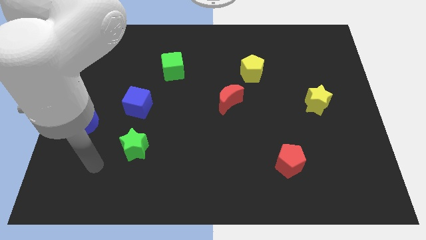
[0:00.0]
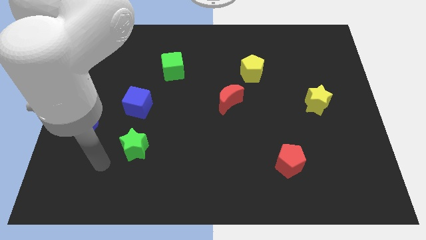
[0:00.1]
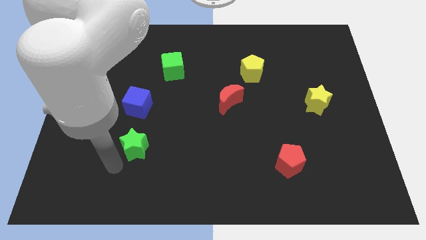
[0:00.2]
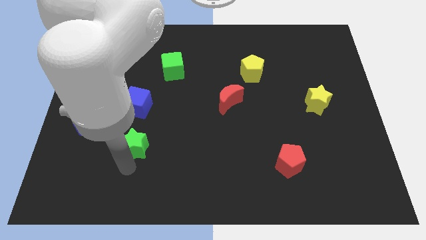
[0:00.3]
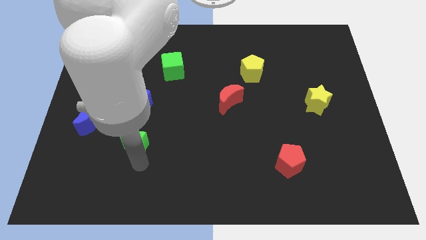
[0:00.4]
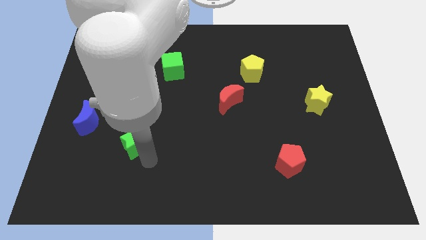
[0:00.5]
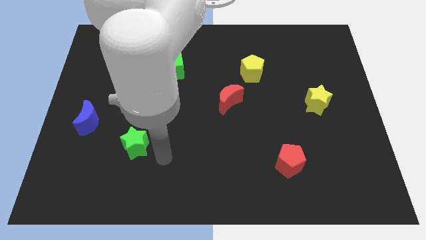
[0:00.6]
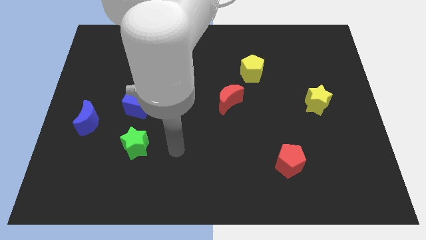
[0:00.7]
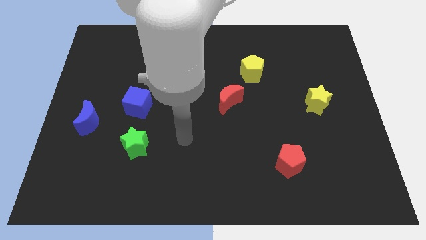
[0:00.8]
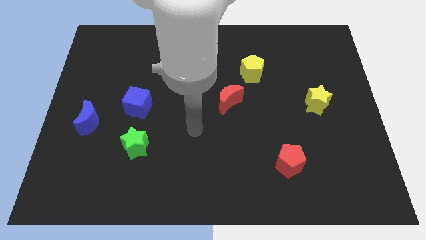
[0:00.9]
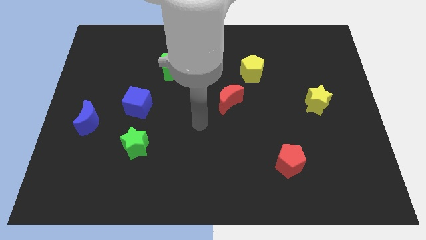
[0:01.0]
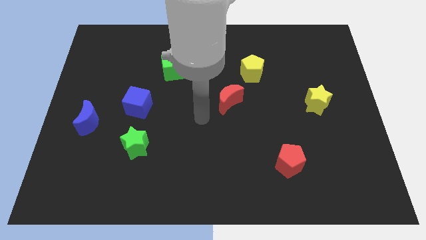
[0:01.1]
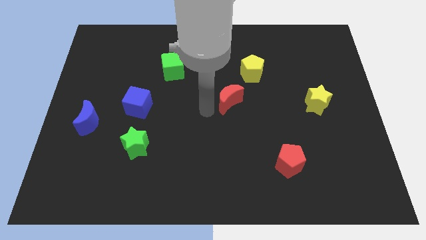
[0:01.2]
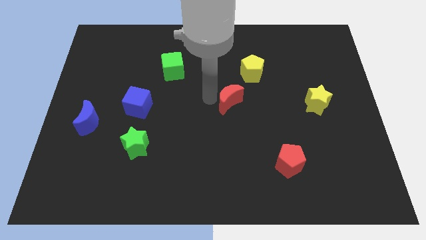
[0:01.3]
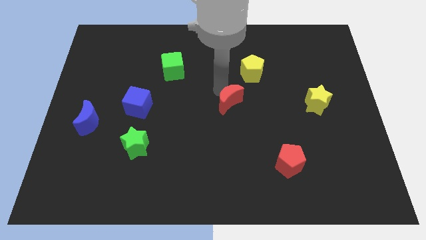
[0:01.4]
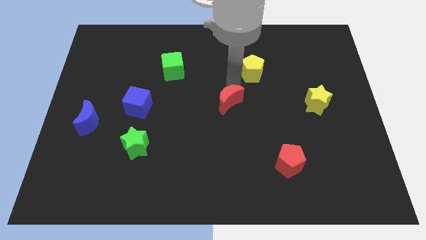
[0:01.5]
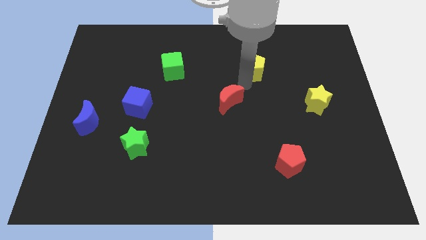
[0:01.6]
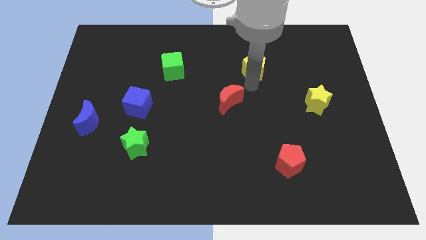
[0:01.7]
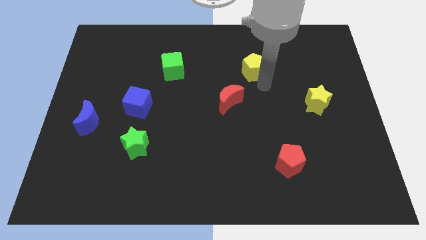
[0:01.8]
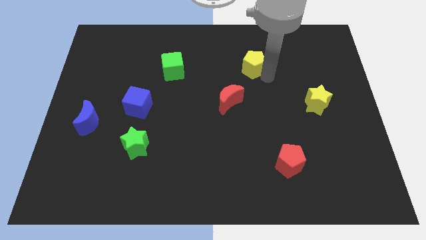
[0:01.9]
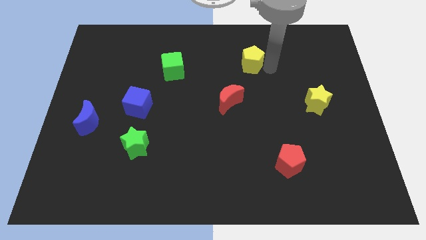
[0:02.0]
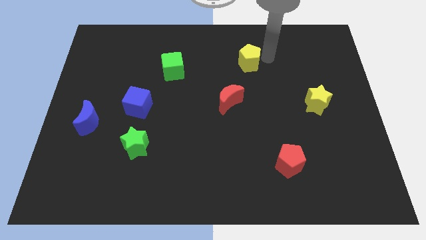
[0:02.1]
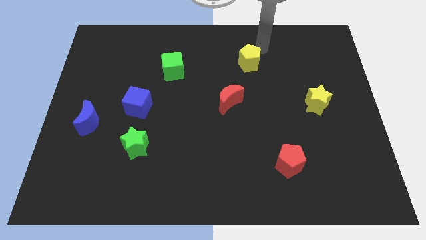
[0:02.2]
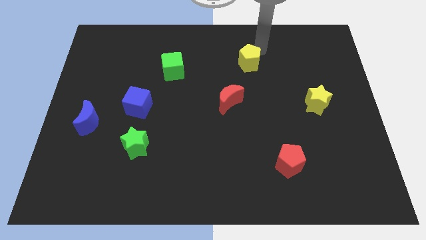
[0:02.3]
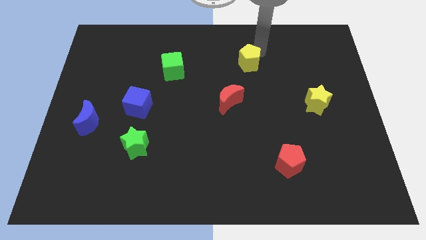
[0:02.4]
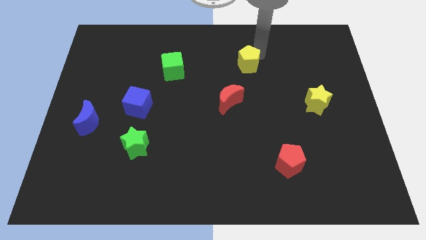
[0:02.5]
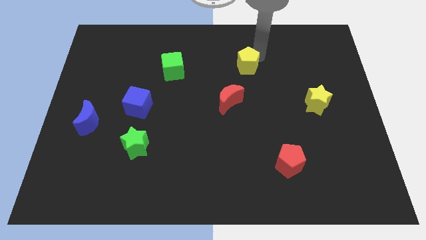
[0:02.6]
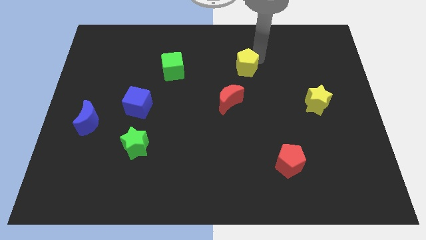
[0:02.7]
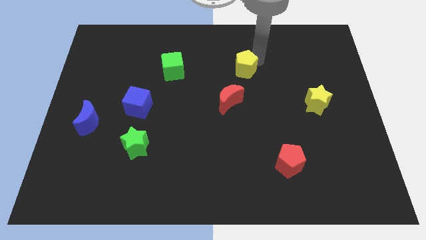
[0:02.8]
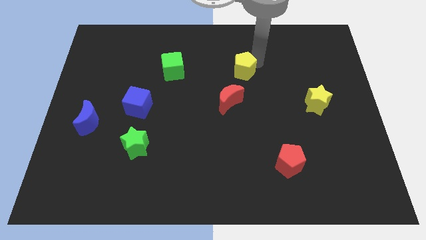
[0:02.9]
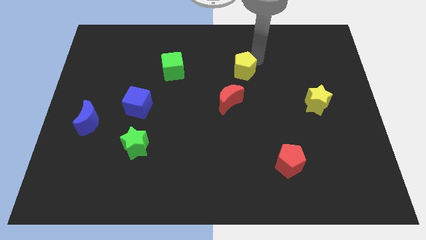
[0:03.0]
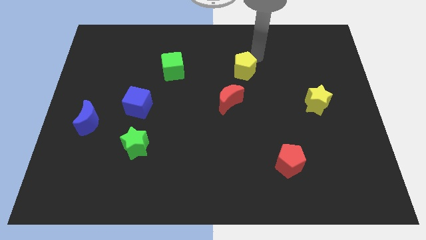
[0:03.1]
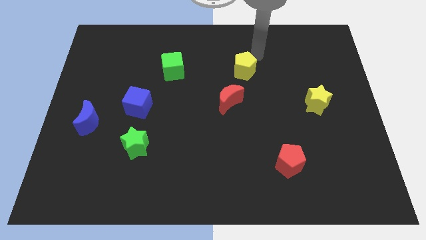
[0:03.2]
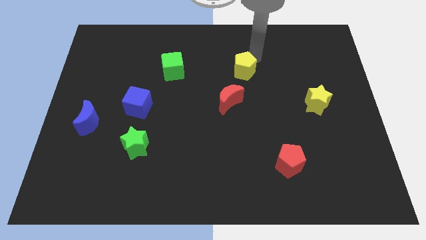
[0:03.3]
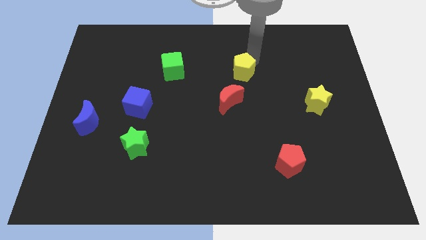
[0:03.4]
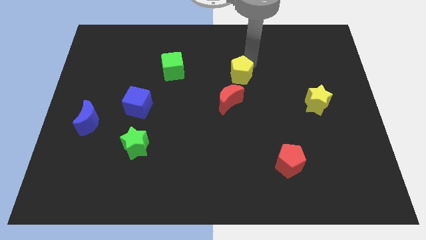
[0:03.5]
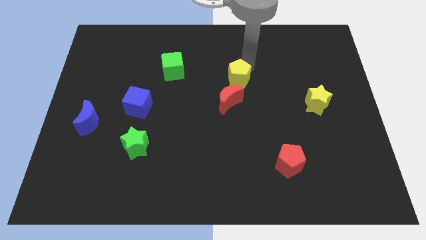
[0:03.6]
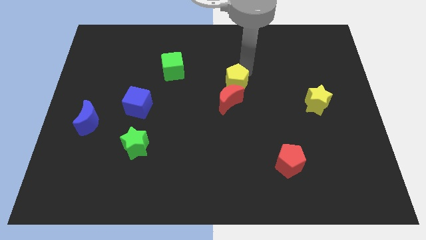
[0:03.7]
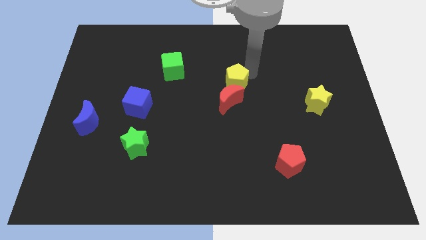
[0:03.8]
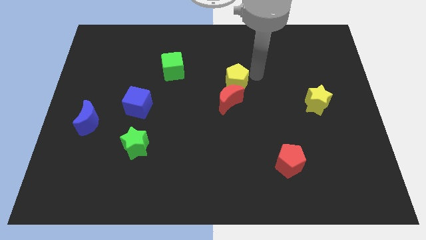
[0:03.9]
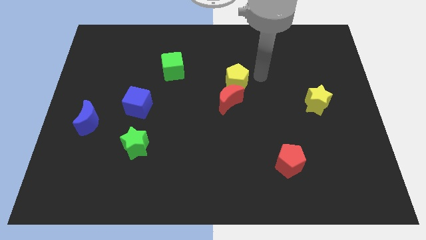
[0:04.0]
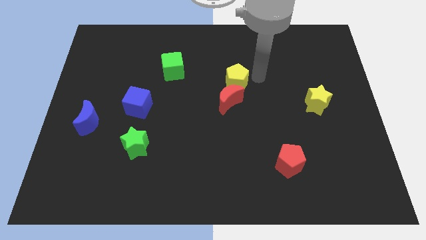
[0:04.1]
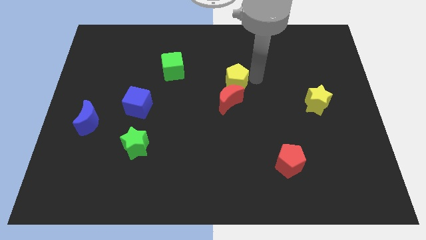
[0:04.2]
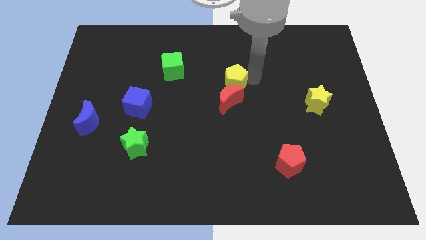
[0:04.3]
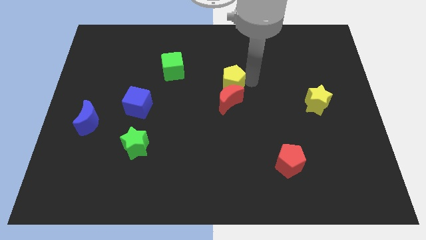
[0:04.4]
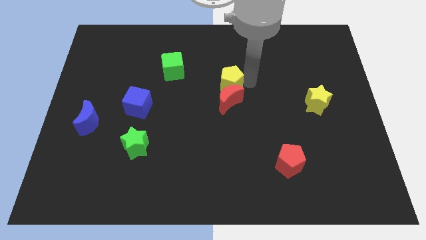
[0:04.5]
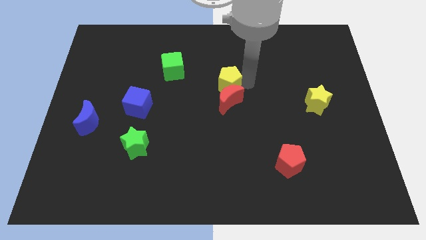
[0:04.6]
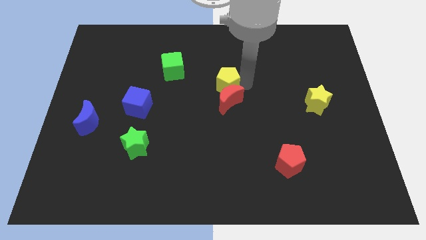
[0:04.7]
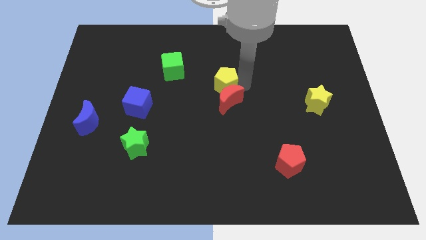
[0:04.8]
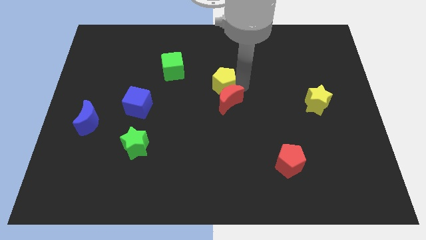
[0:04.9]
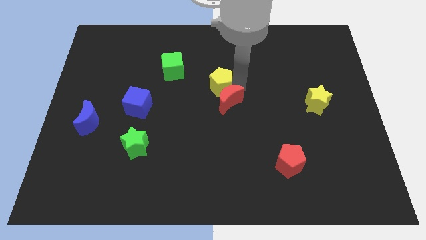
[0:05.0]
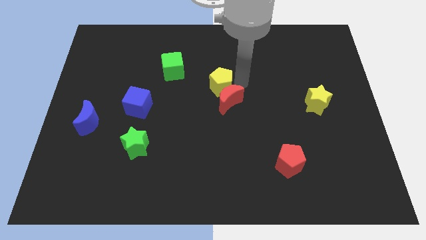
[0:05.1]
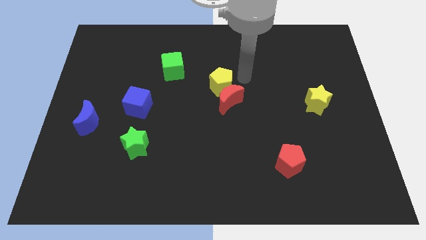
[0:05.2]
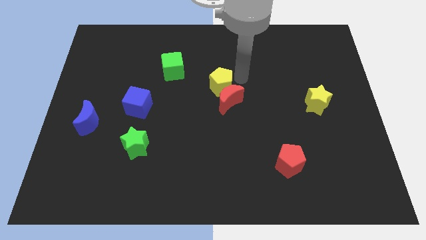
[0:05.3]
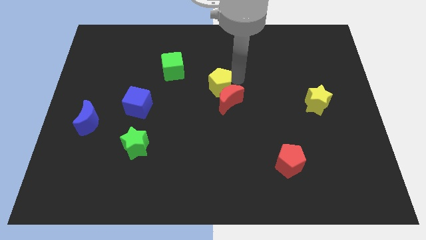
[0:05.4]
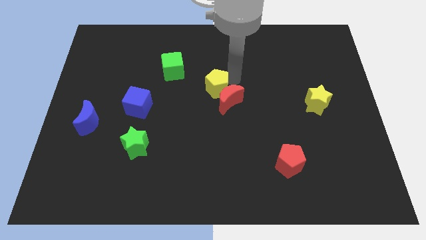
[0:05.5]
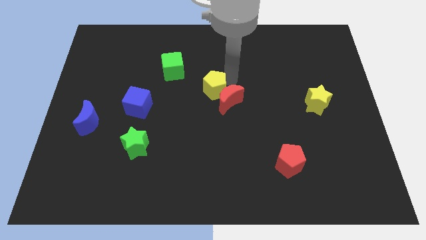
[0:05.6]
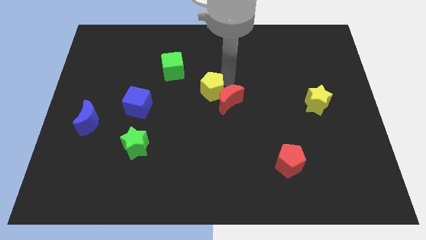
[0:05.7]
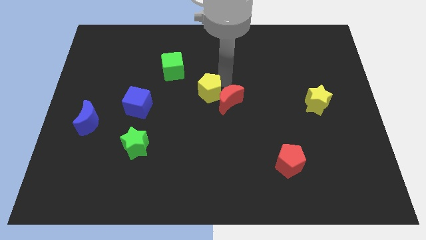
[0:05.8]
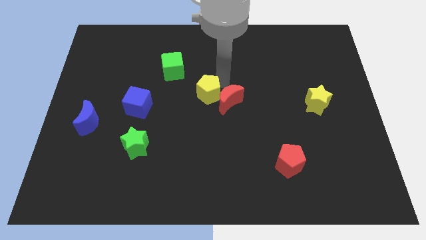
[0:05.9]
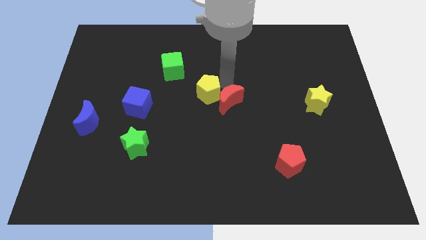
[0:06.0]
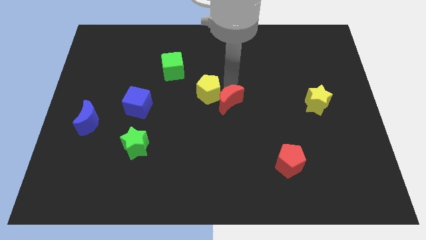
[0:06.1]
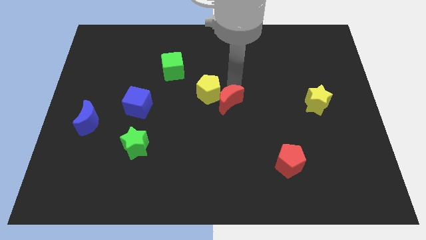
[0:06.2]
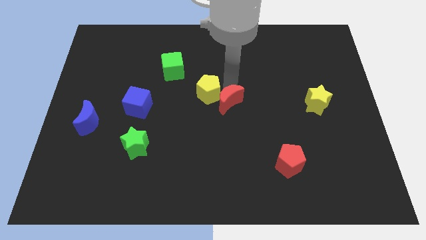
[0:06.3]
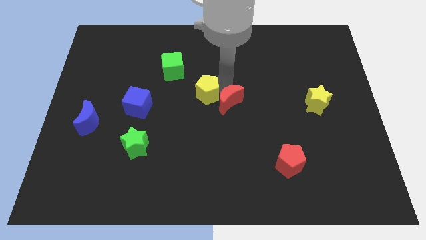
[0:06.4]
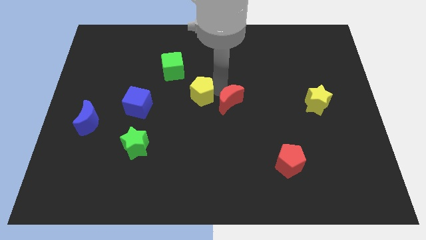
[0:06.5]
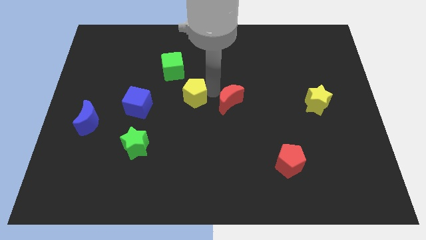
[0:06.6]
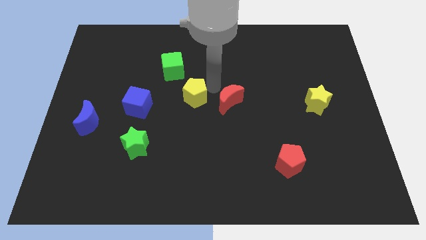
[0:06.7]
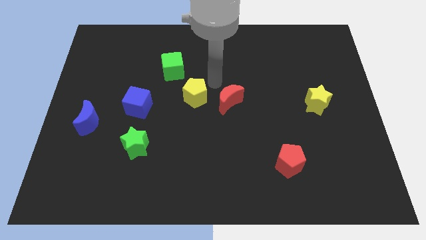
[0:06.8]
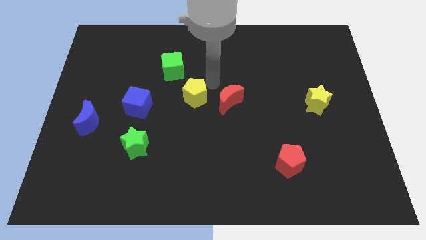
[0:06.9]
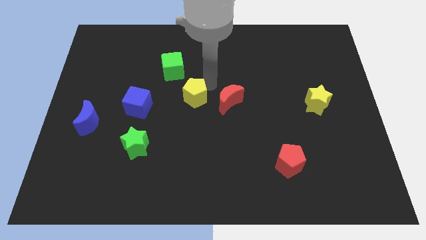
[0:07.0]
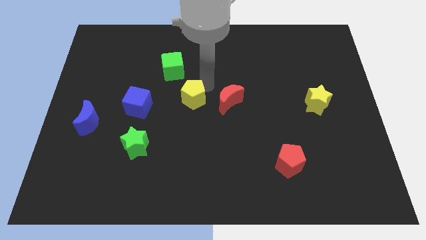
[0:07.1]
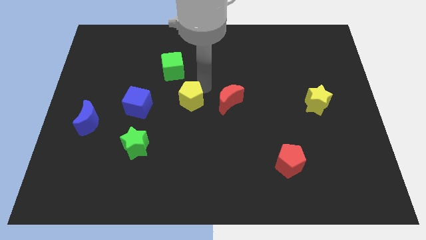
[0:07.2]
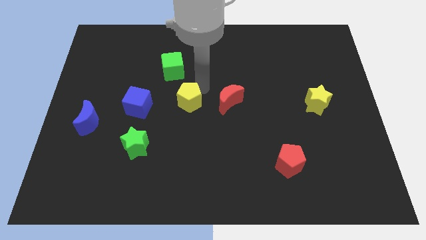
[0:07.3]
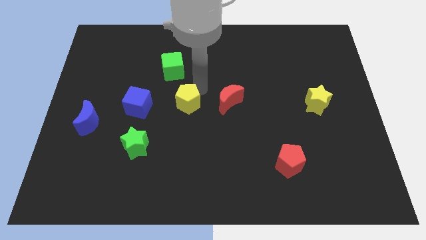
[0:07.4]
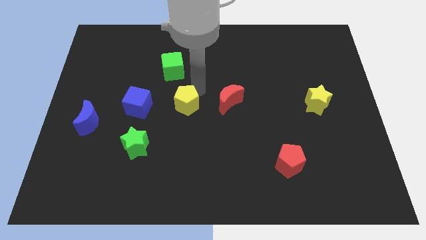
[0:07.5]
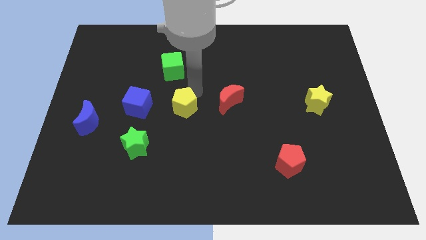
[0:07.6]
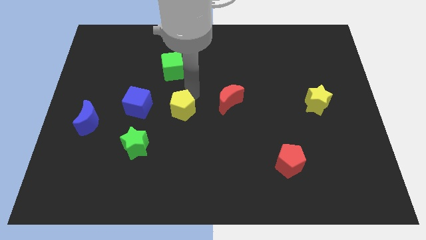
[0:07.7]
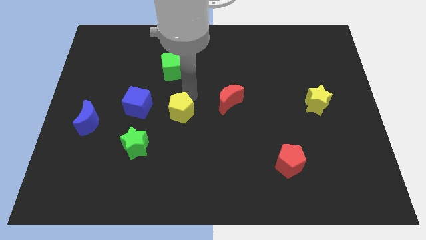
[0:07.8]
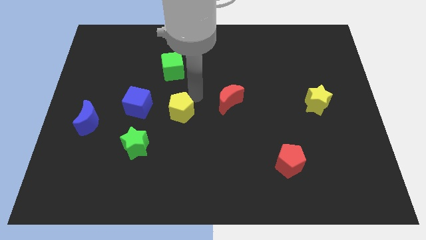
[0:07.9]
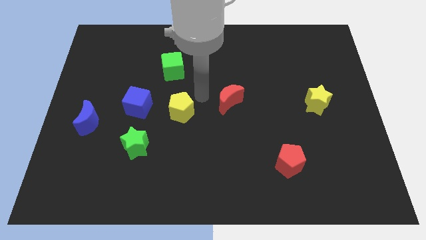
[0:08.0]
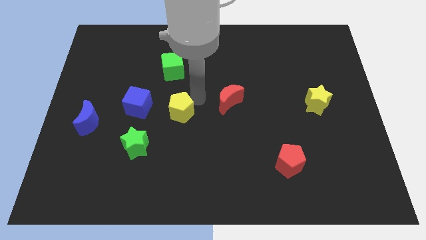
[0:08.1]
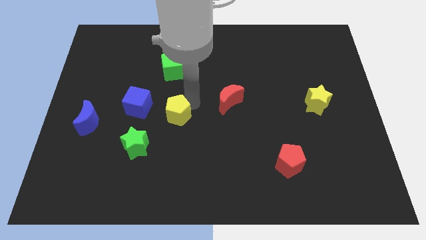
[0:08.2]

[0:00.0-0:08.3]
move the yellow pentagon diagonally up and to the right of the green star
